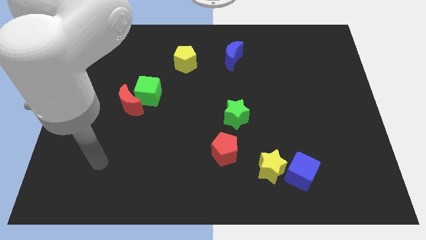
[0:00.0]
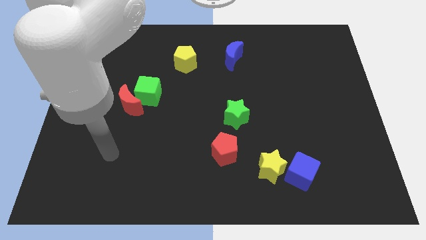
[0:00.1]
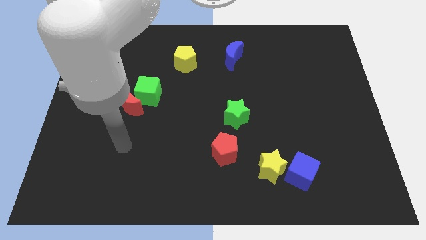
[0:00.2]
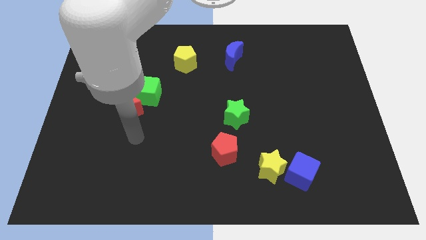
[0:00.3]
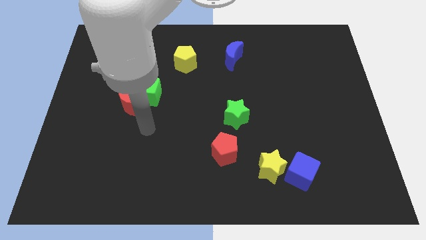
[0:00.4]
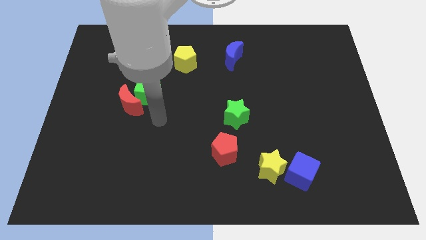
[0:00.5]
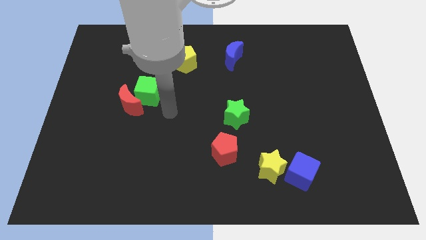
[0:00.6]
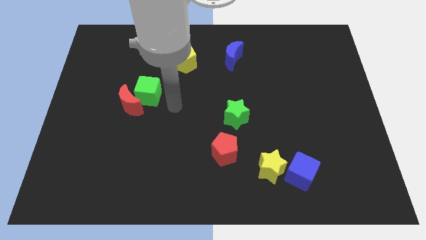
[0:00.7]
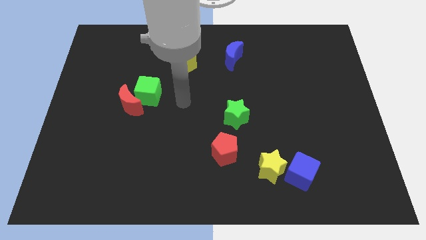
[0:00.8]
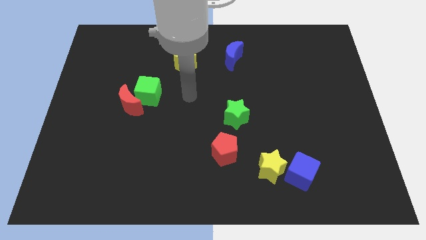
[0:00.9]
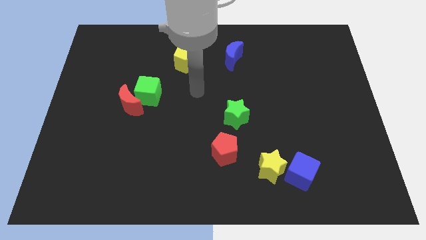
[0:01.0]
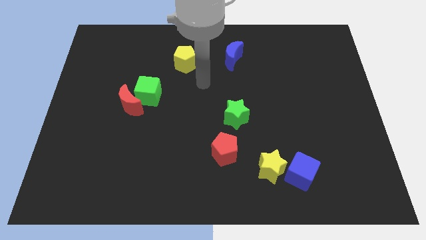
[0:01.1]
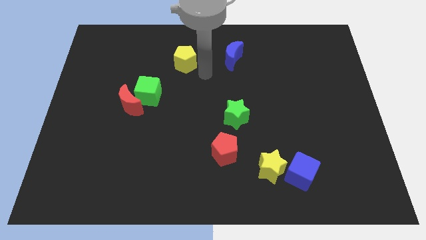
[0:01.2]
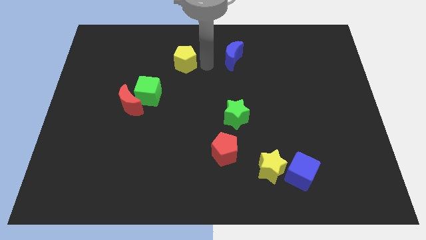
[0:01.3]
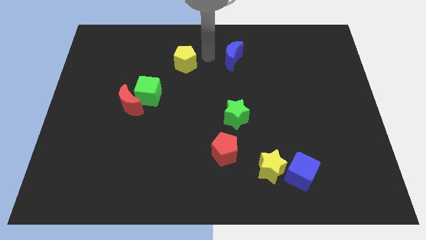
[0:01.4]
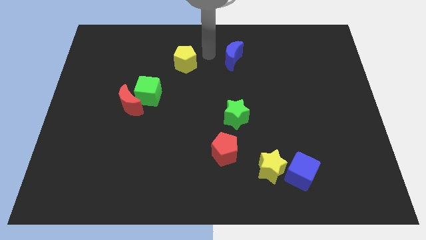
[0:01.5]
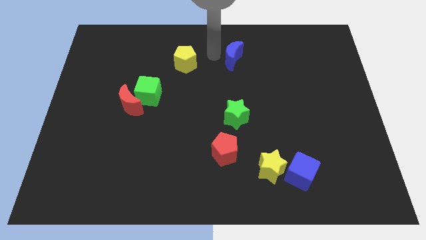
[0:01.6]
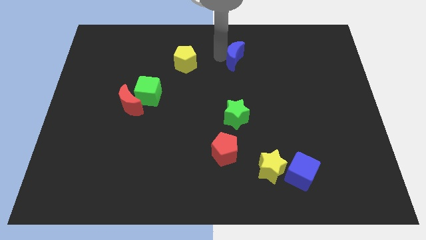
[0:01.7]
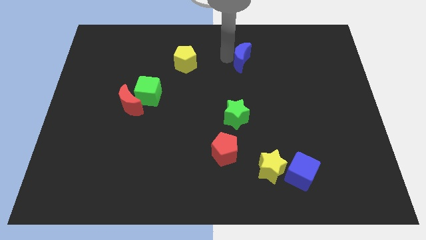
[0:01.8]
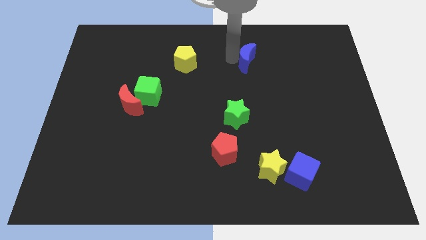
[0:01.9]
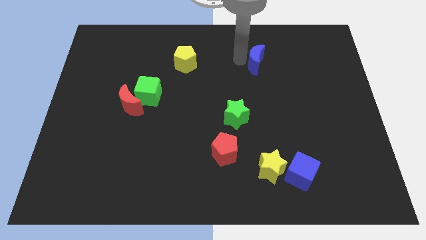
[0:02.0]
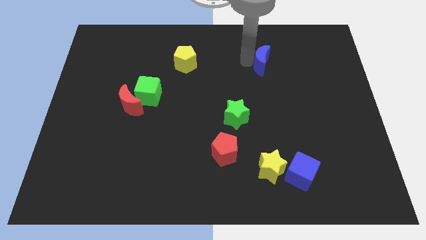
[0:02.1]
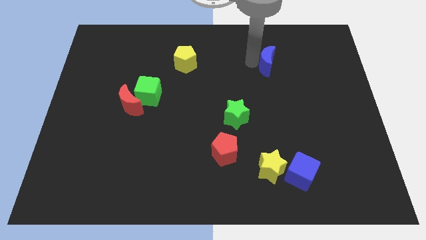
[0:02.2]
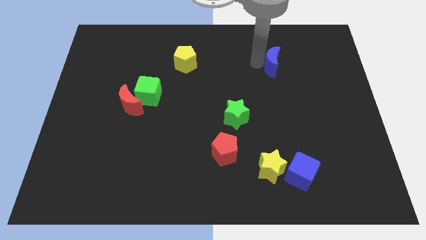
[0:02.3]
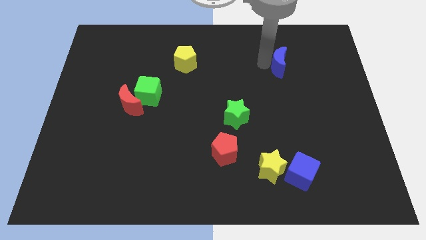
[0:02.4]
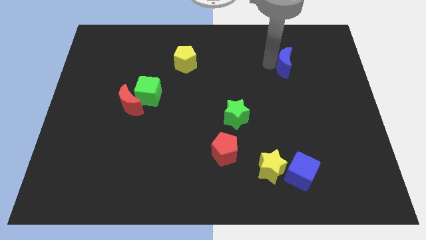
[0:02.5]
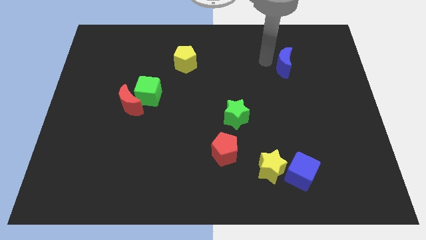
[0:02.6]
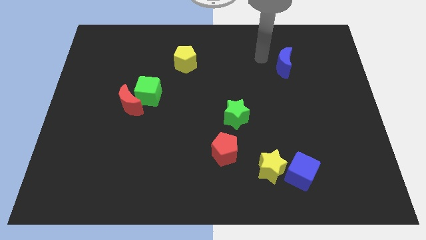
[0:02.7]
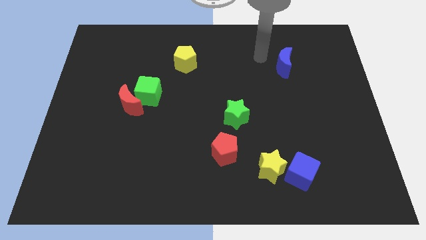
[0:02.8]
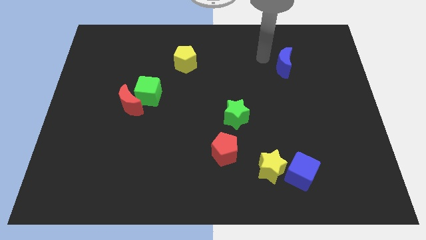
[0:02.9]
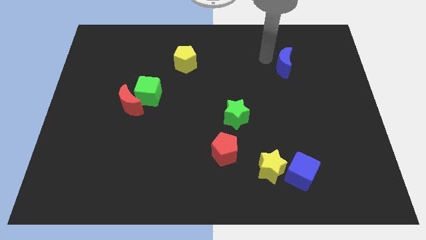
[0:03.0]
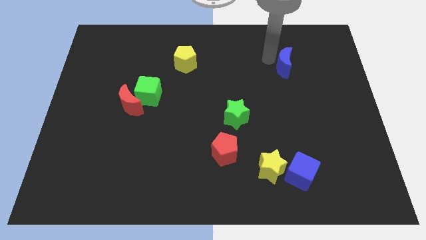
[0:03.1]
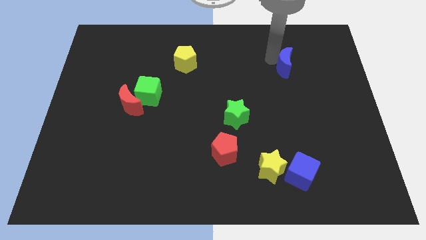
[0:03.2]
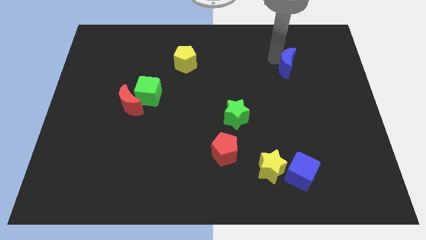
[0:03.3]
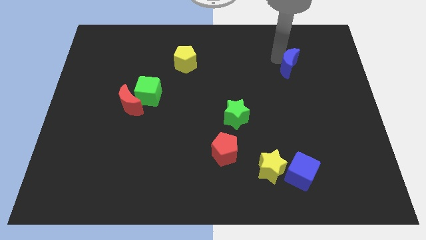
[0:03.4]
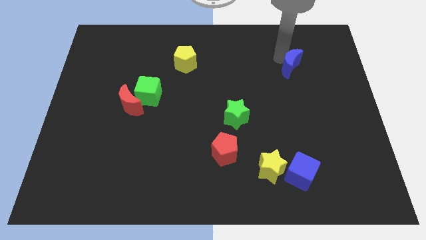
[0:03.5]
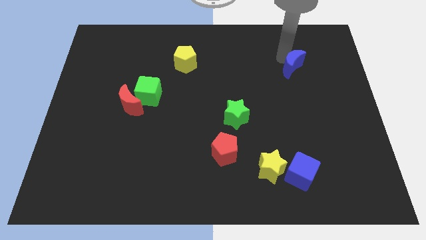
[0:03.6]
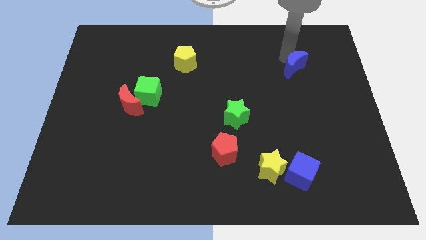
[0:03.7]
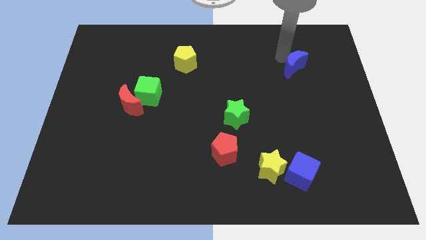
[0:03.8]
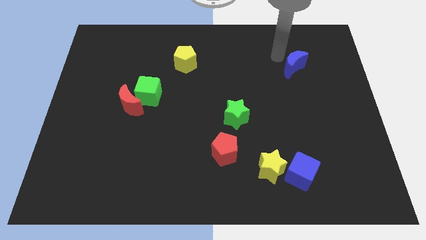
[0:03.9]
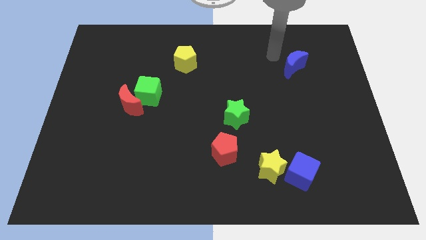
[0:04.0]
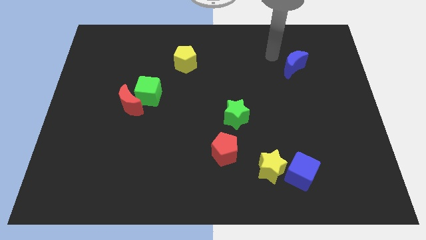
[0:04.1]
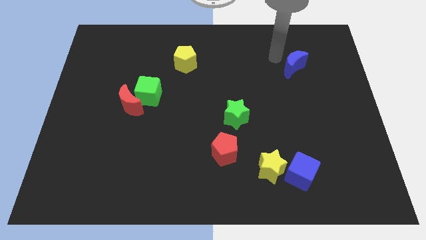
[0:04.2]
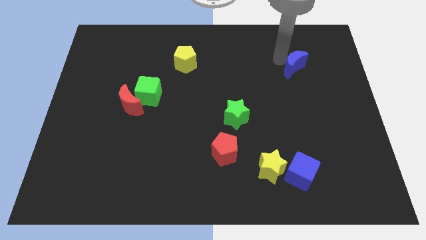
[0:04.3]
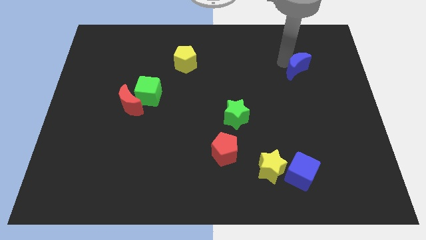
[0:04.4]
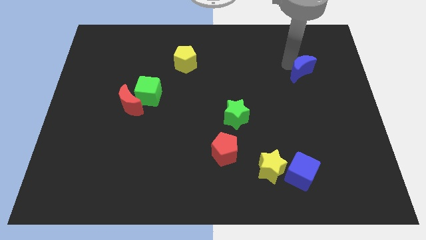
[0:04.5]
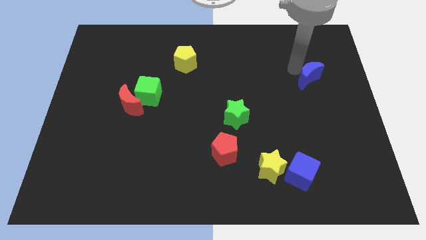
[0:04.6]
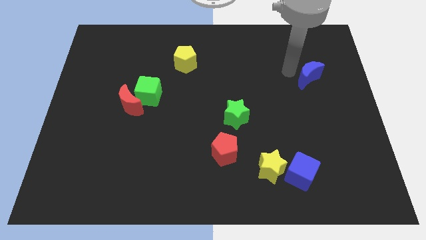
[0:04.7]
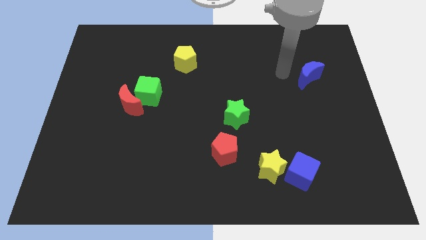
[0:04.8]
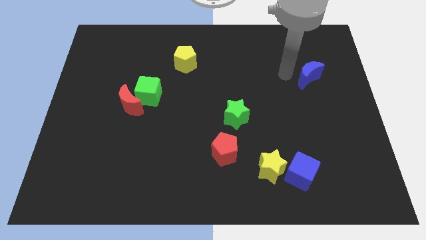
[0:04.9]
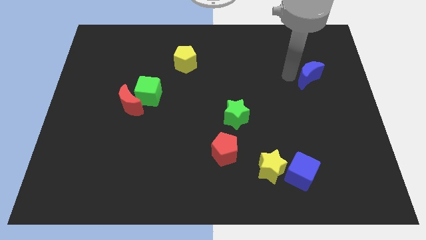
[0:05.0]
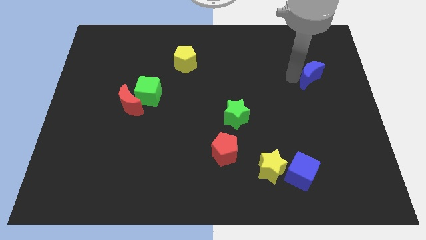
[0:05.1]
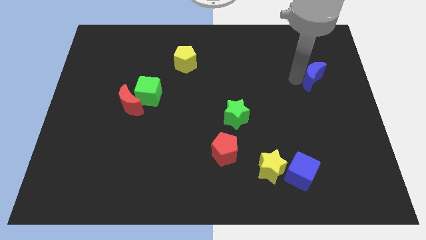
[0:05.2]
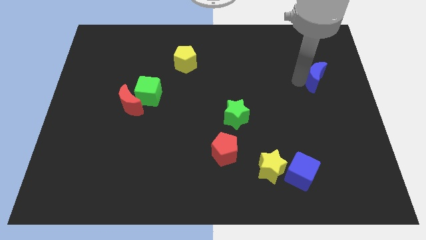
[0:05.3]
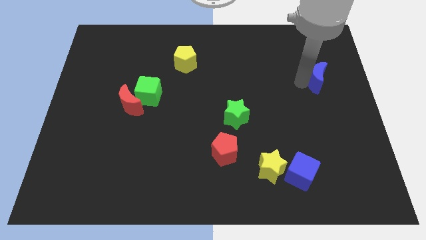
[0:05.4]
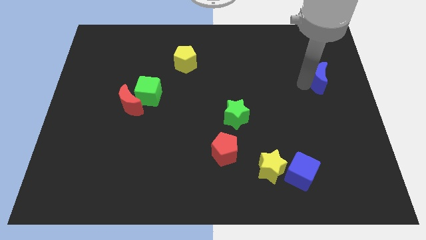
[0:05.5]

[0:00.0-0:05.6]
put the blue moon to the right side

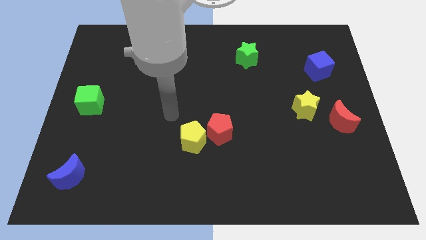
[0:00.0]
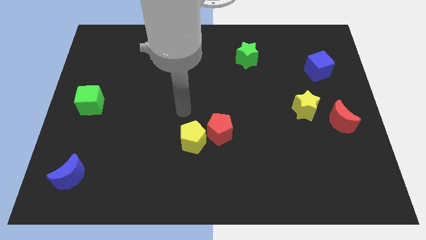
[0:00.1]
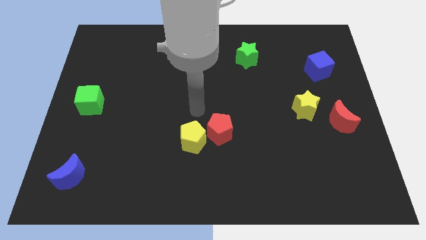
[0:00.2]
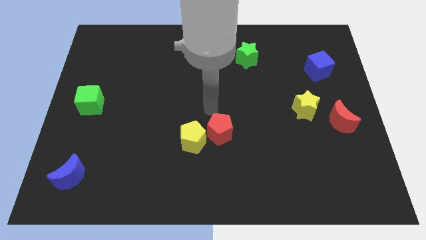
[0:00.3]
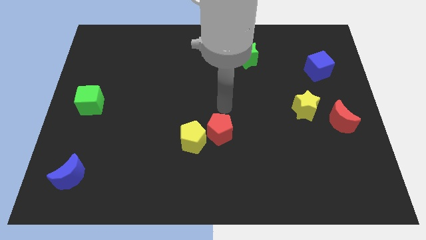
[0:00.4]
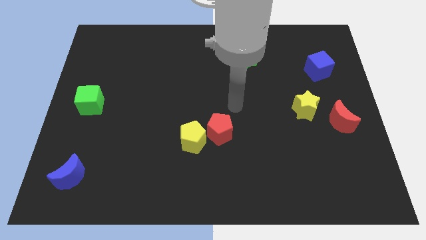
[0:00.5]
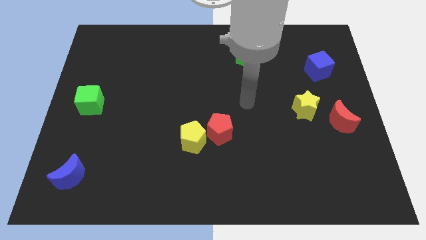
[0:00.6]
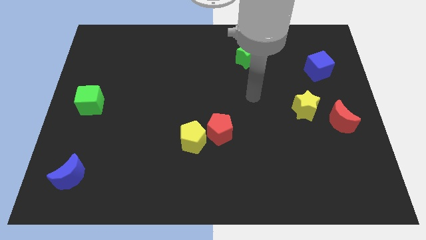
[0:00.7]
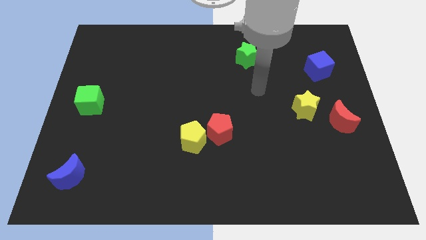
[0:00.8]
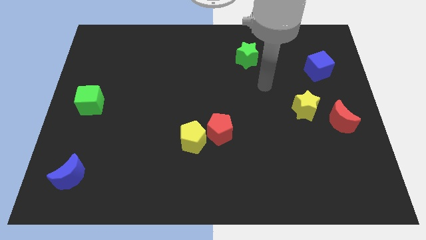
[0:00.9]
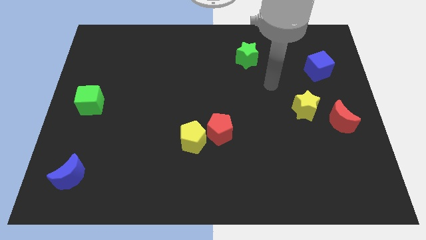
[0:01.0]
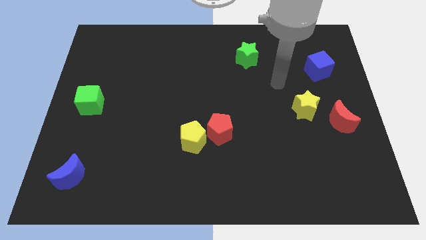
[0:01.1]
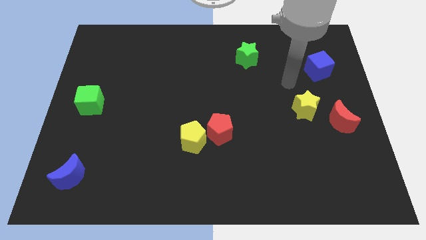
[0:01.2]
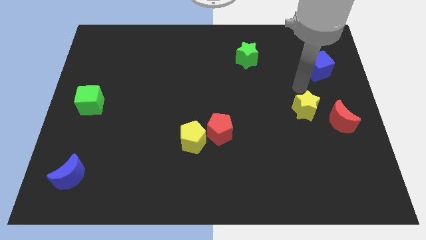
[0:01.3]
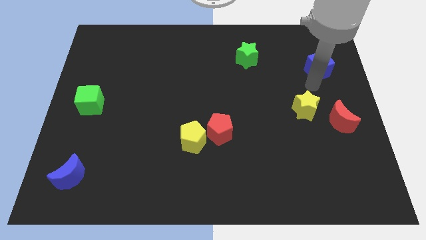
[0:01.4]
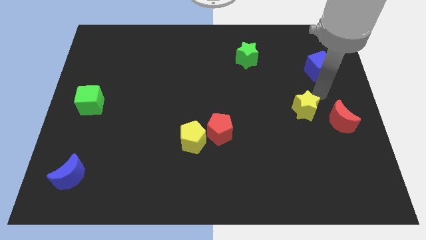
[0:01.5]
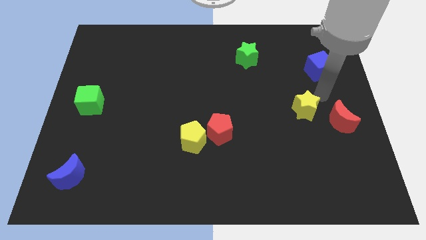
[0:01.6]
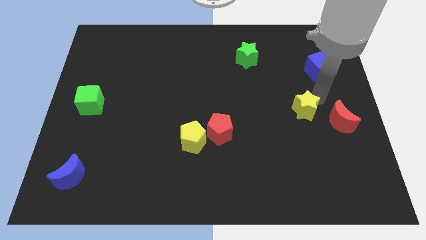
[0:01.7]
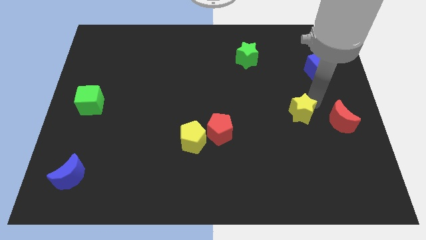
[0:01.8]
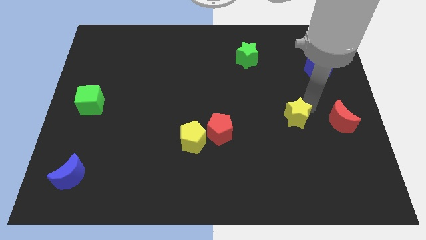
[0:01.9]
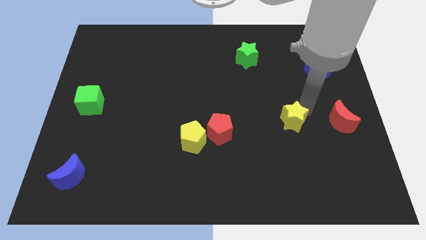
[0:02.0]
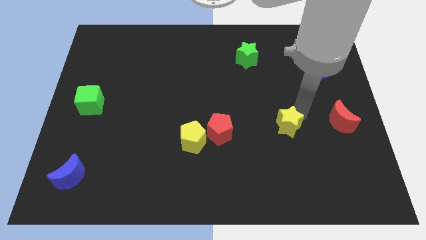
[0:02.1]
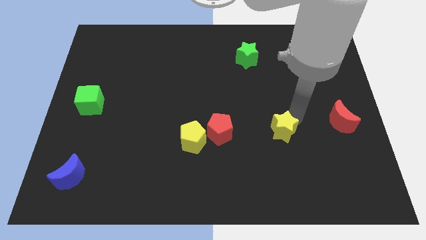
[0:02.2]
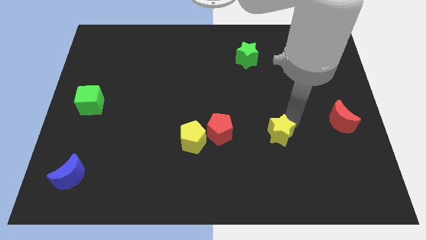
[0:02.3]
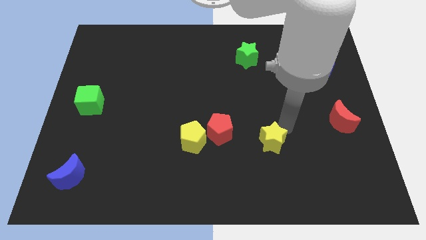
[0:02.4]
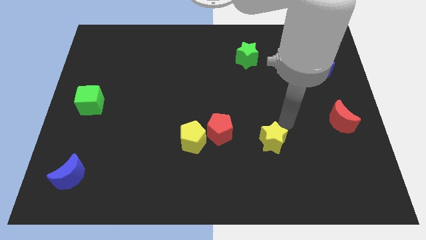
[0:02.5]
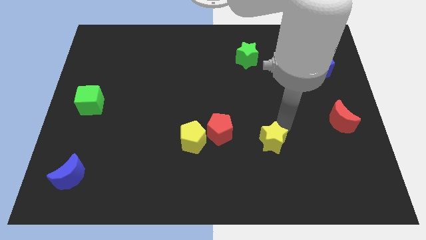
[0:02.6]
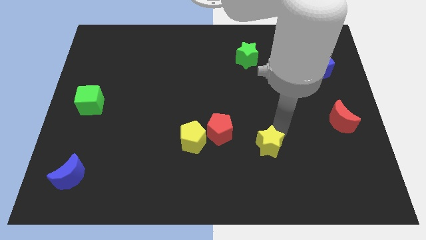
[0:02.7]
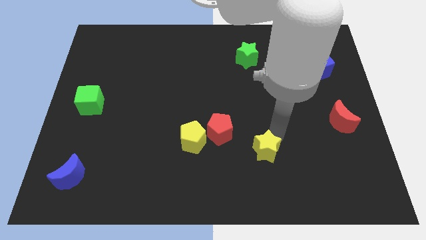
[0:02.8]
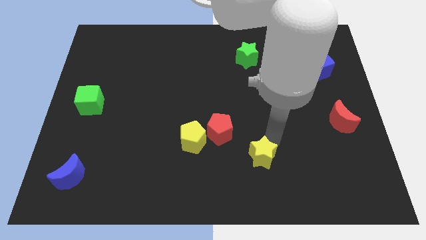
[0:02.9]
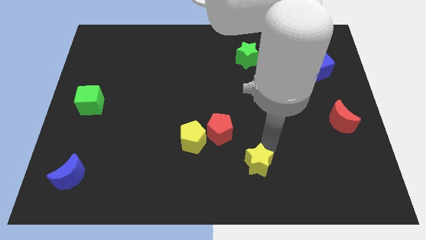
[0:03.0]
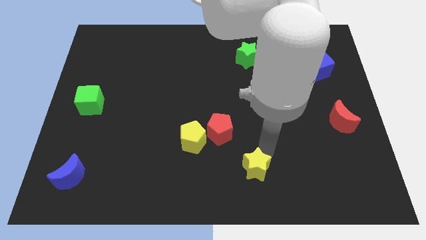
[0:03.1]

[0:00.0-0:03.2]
put the yellow star to the bottom side
